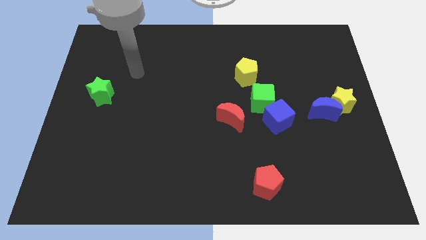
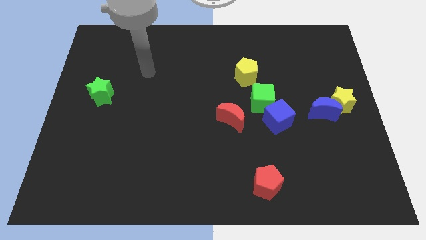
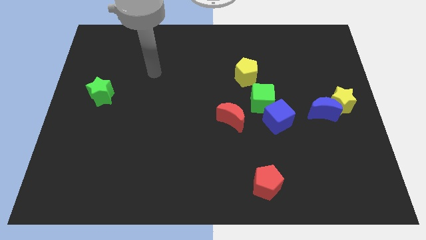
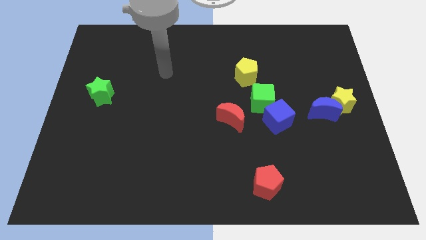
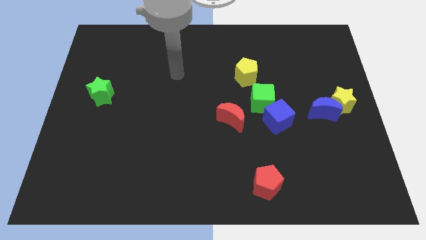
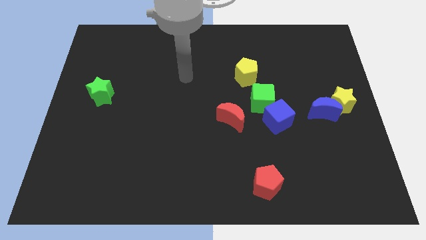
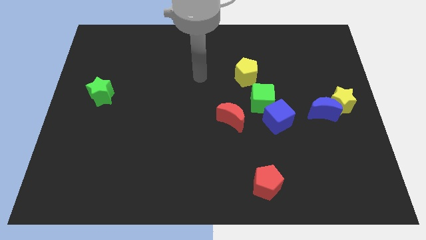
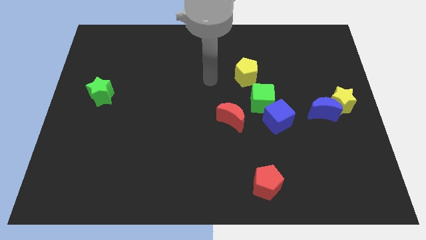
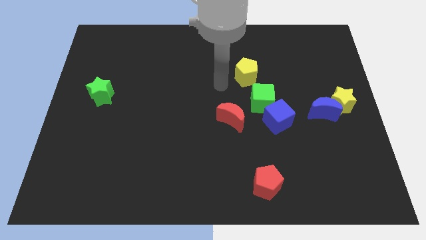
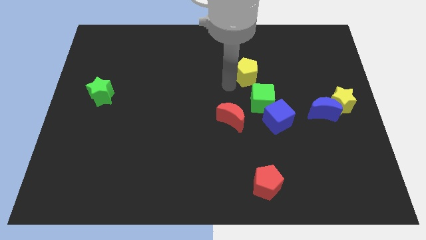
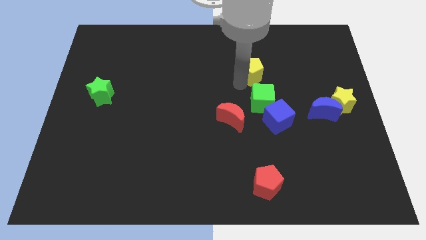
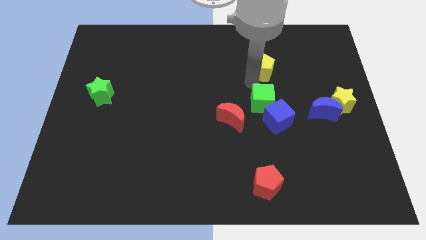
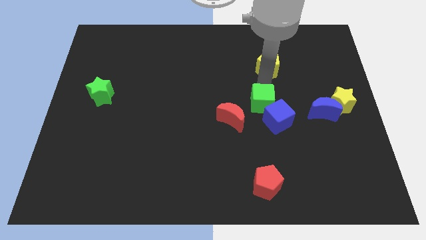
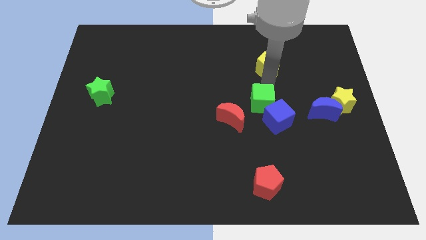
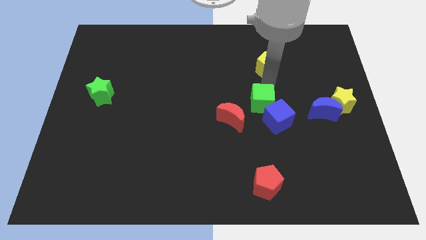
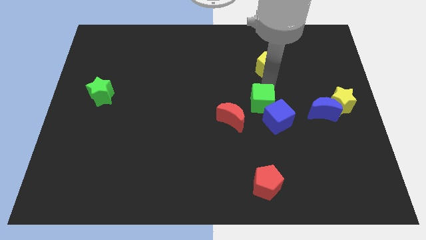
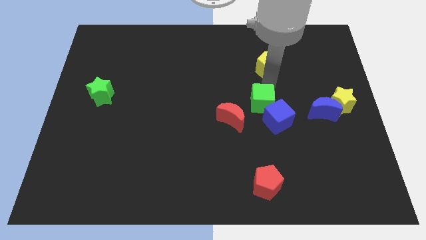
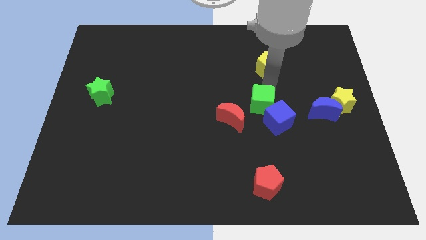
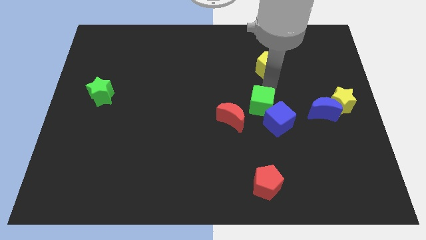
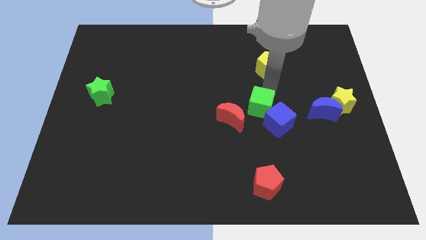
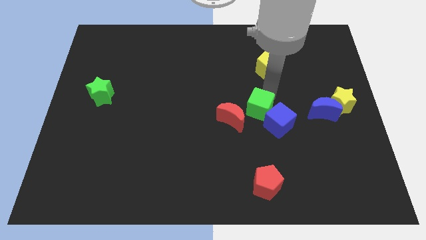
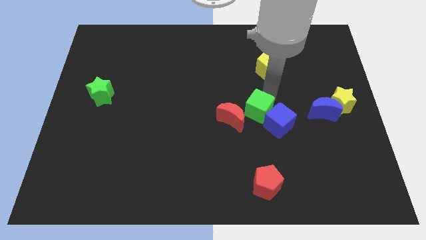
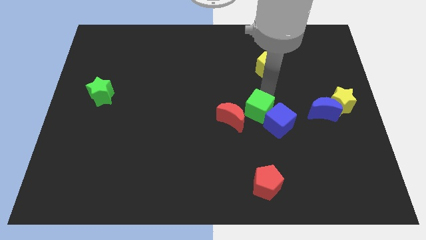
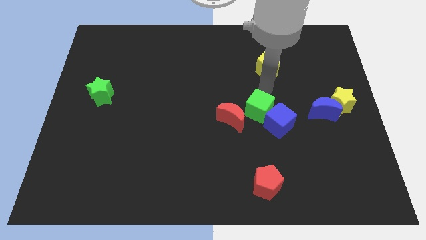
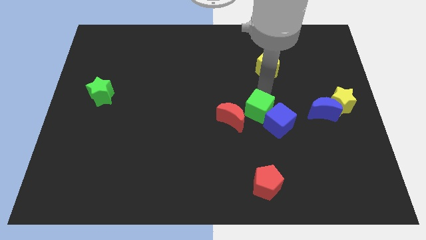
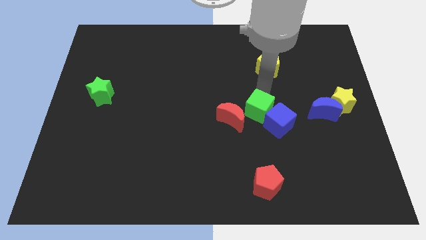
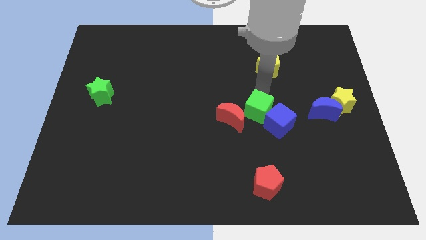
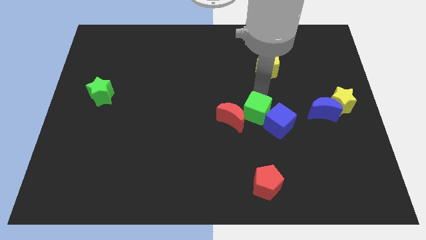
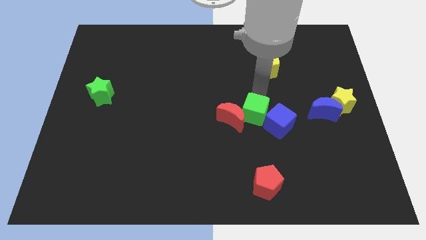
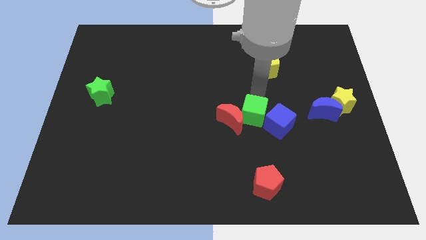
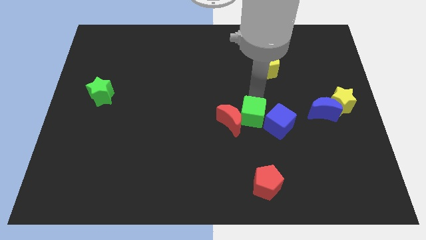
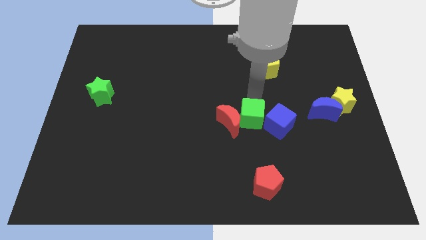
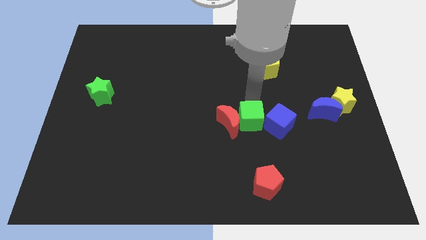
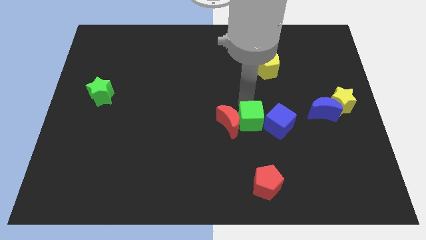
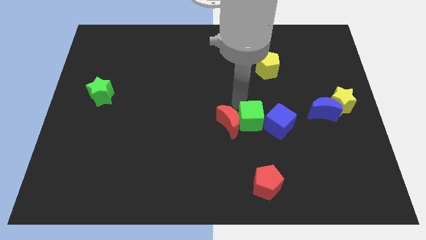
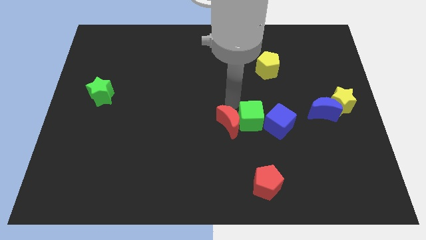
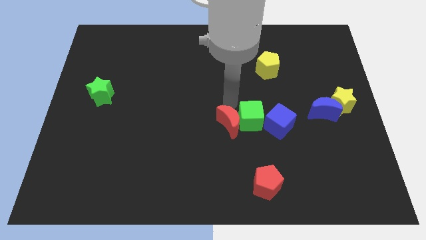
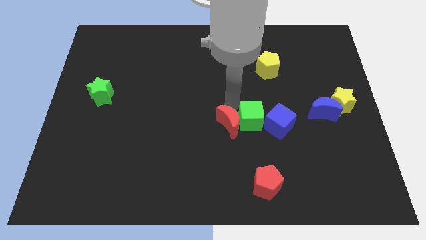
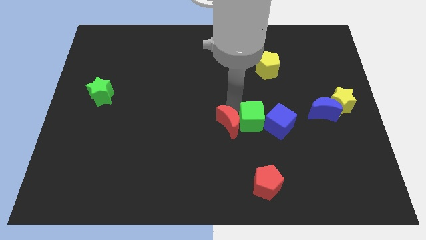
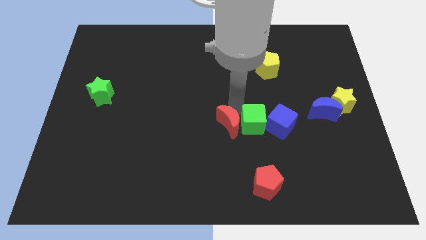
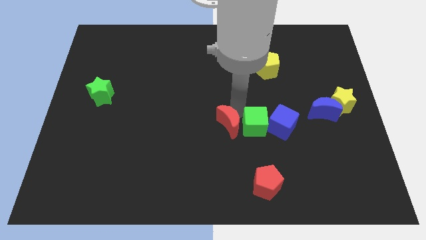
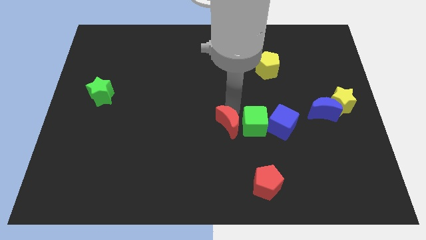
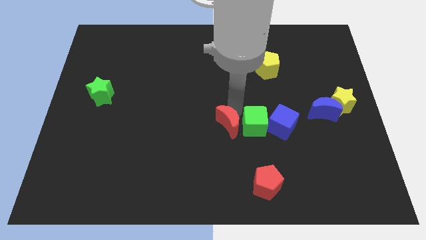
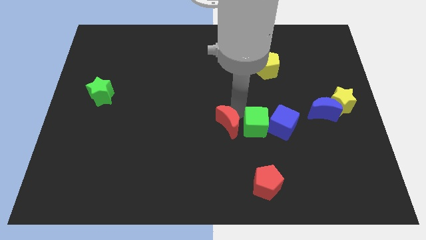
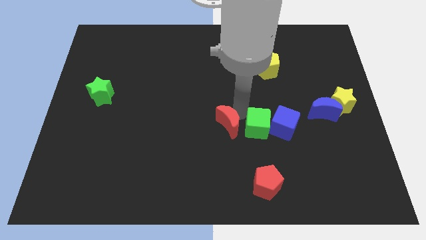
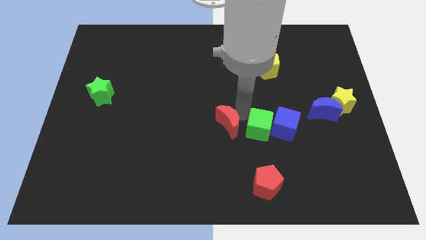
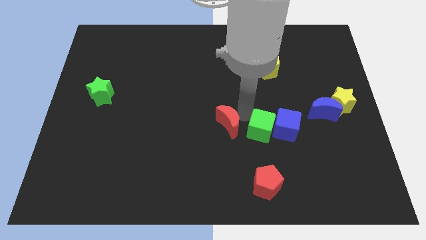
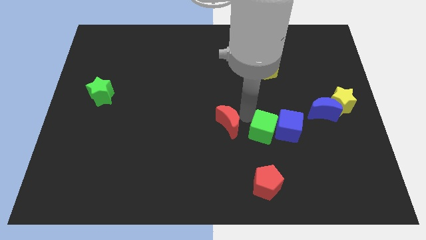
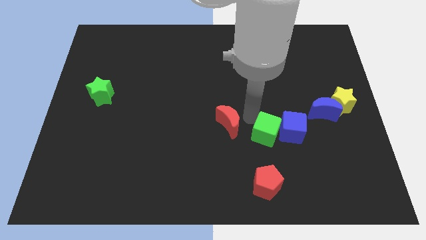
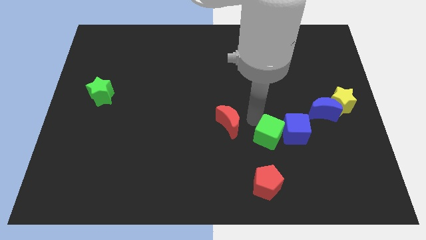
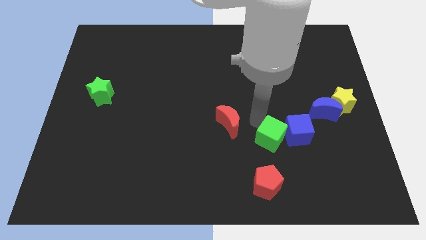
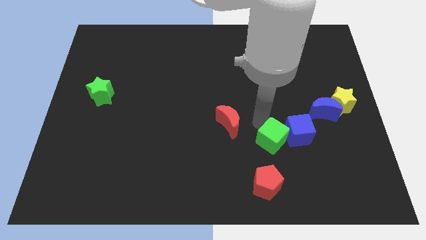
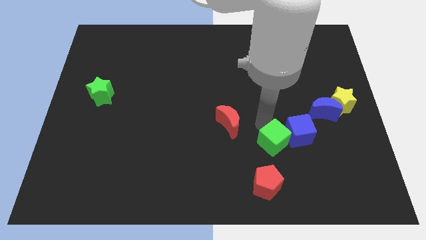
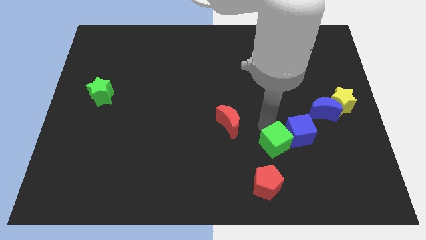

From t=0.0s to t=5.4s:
put the green cube diagonally up and to the right of the red pentagon

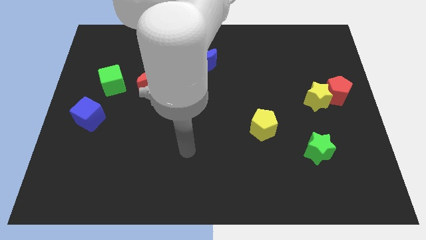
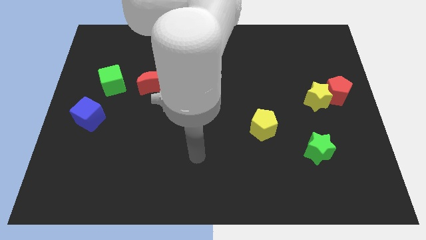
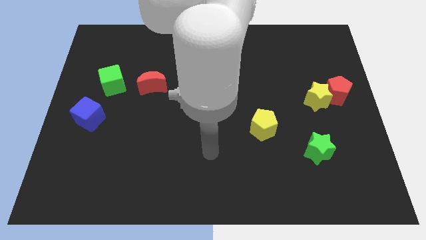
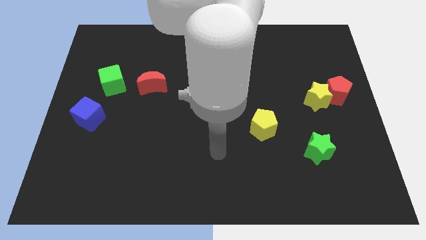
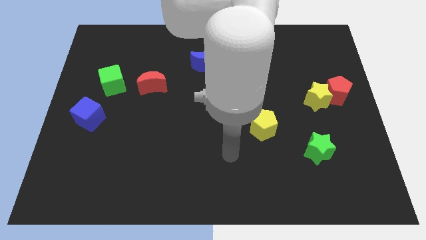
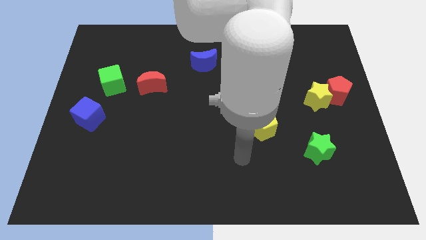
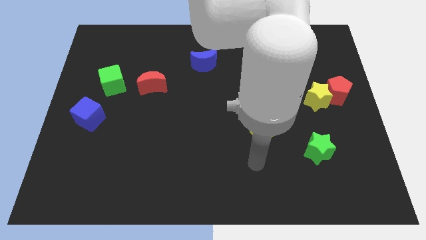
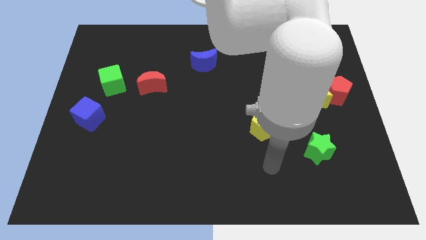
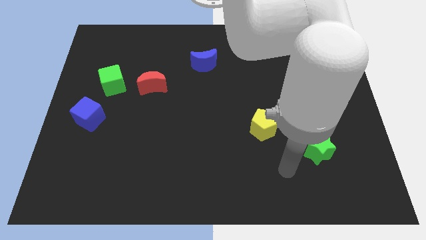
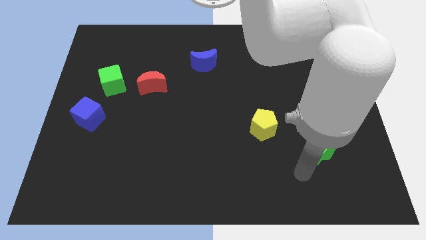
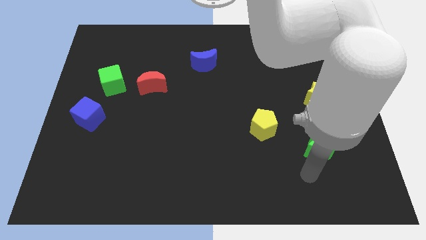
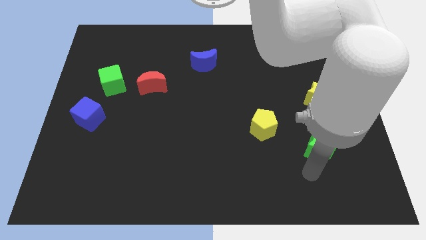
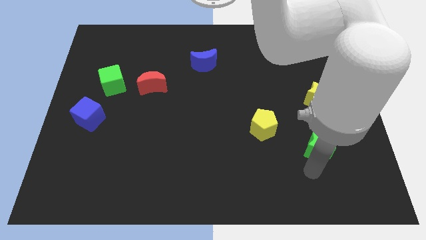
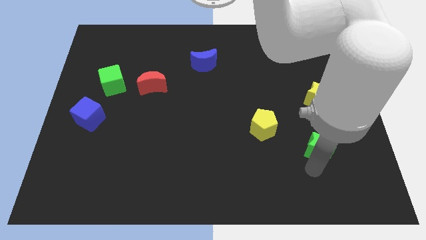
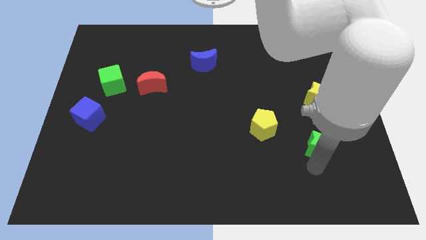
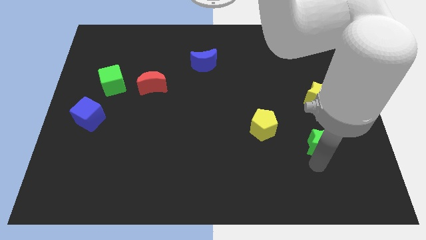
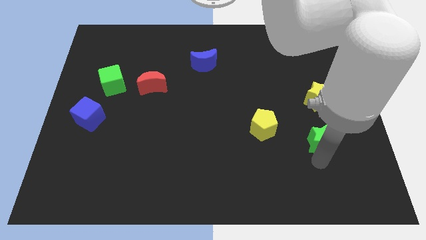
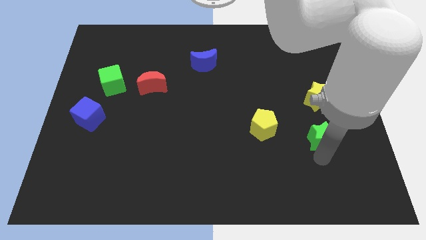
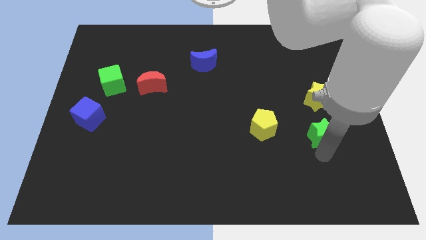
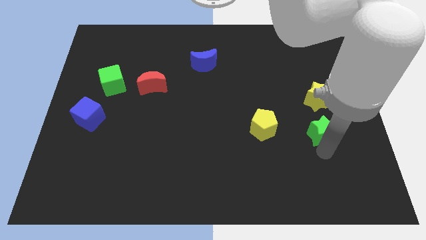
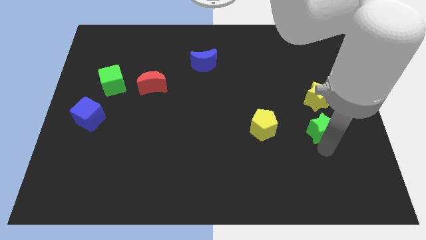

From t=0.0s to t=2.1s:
push the green star to the bottom left side of the red pentagon
